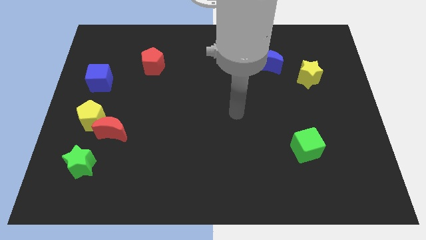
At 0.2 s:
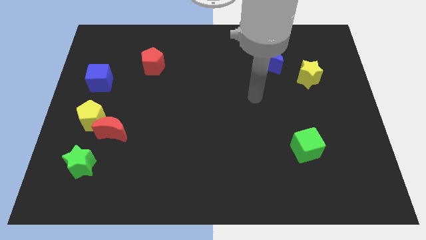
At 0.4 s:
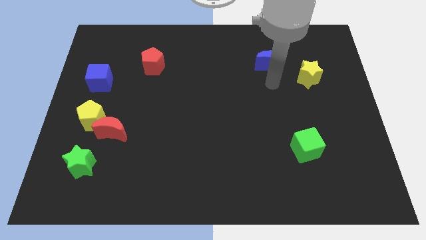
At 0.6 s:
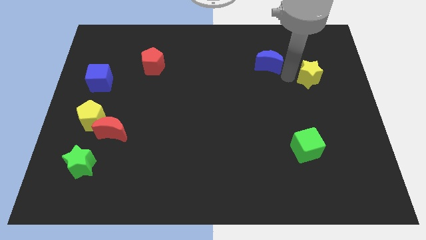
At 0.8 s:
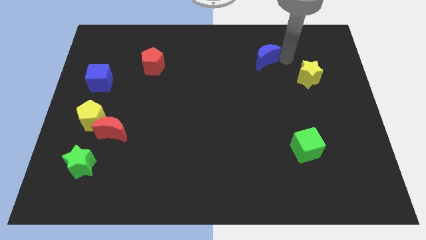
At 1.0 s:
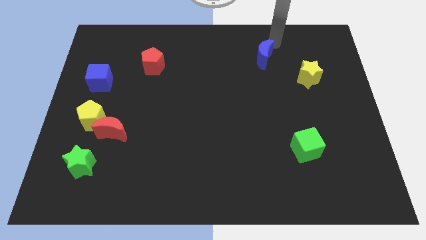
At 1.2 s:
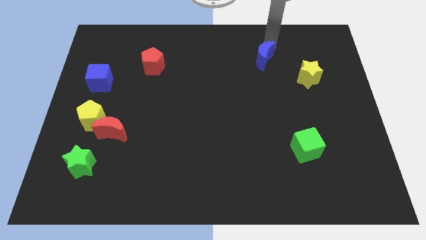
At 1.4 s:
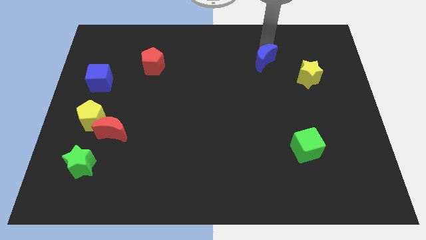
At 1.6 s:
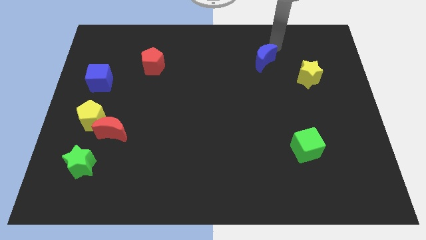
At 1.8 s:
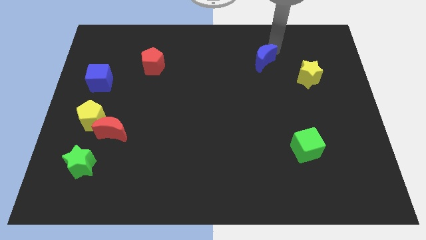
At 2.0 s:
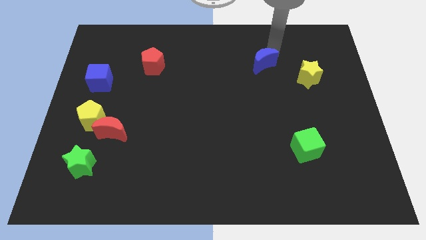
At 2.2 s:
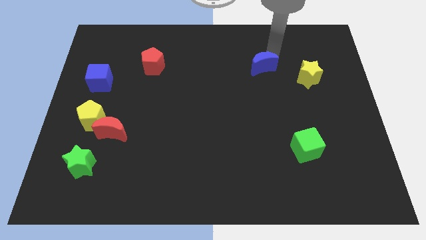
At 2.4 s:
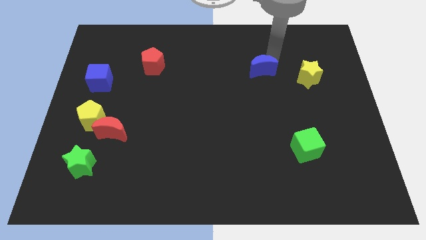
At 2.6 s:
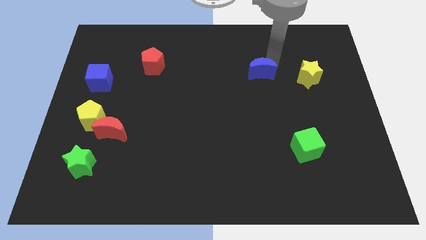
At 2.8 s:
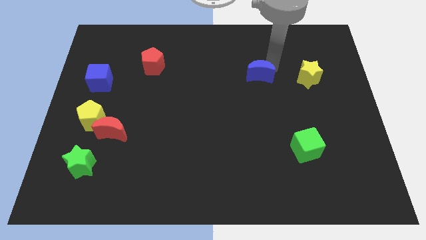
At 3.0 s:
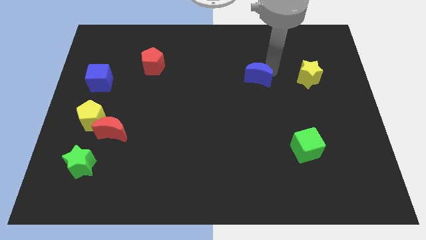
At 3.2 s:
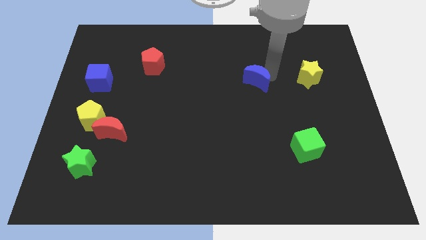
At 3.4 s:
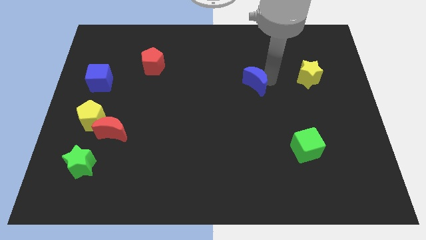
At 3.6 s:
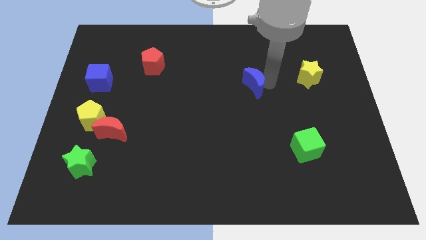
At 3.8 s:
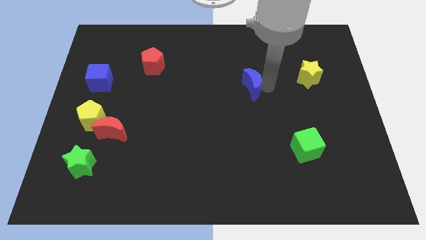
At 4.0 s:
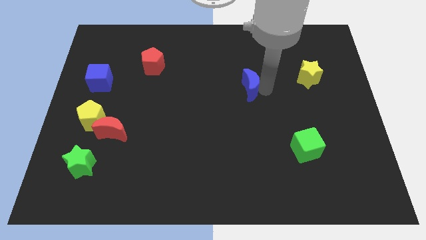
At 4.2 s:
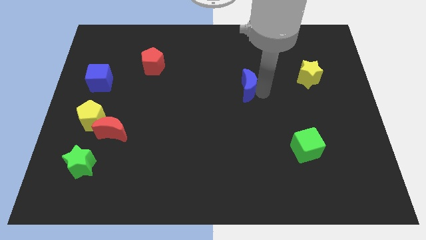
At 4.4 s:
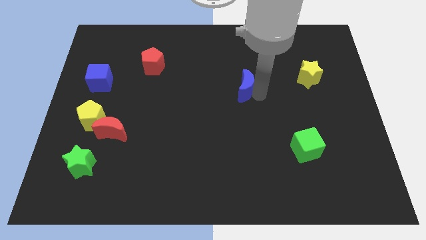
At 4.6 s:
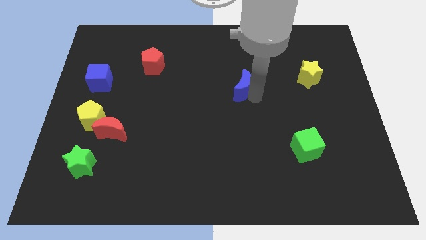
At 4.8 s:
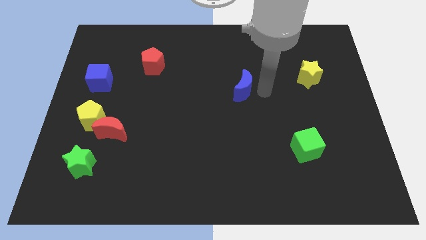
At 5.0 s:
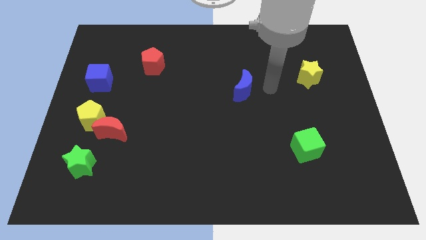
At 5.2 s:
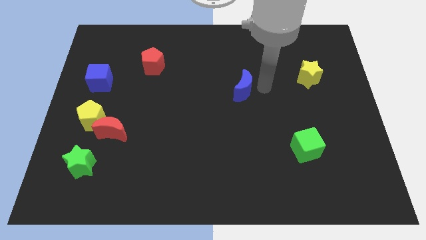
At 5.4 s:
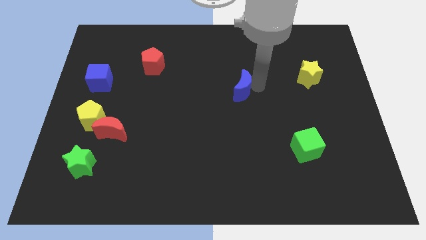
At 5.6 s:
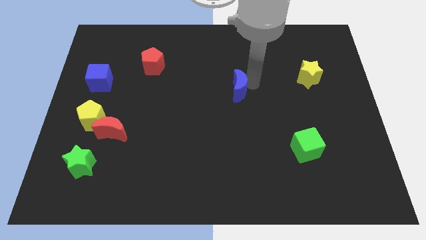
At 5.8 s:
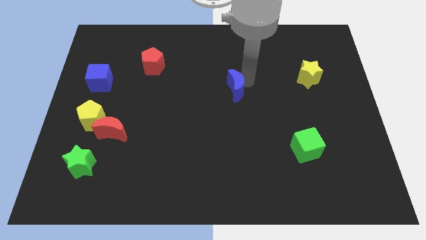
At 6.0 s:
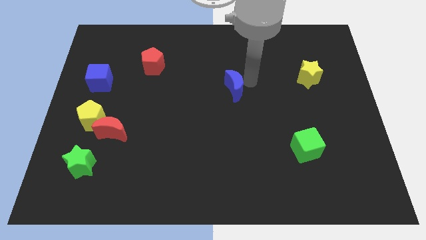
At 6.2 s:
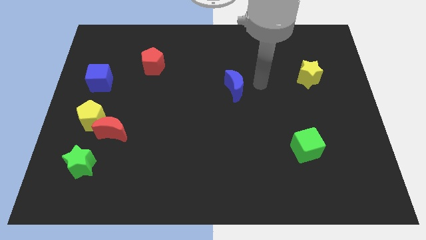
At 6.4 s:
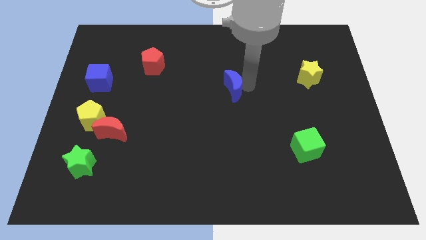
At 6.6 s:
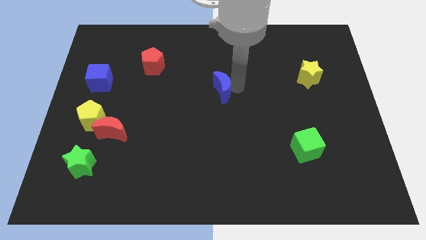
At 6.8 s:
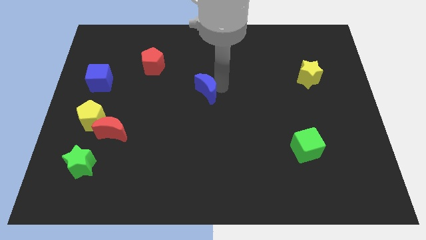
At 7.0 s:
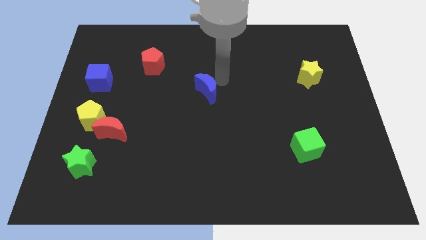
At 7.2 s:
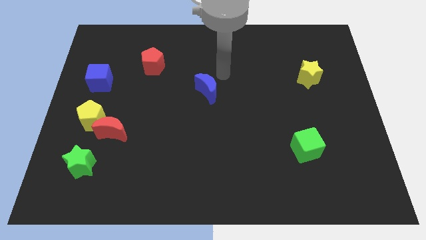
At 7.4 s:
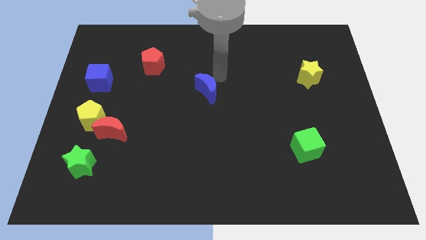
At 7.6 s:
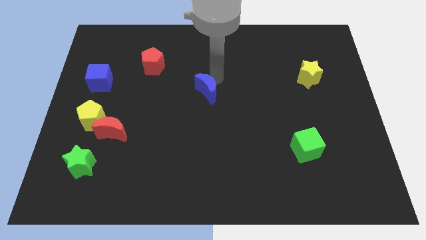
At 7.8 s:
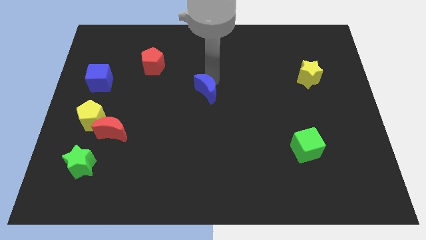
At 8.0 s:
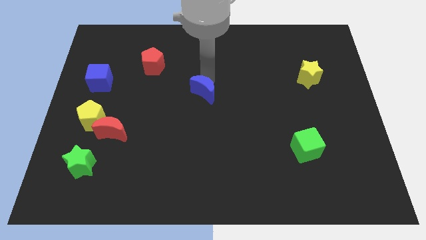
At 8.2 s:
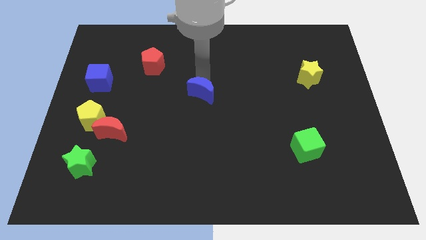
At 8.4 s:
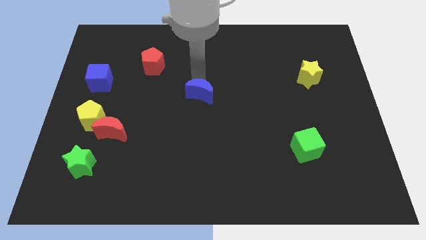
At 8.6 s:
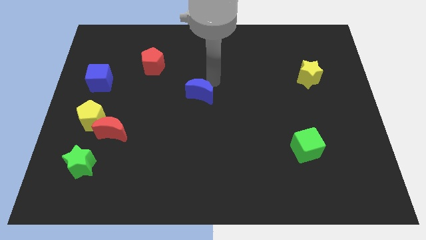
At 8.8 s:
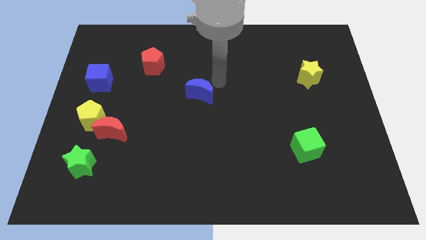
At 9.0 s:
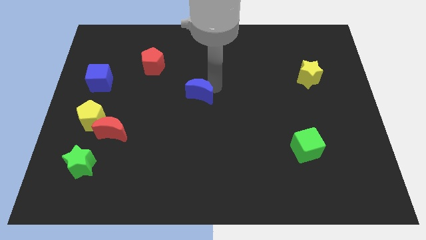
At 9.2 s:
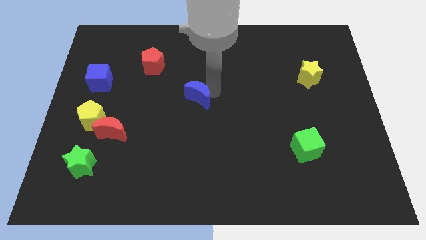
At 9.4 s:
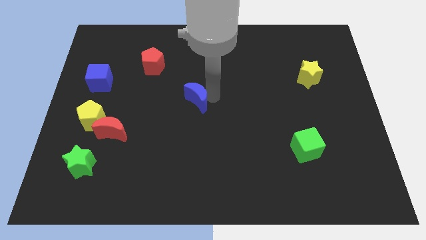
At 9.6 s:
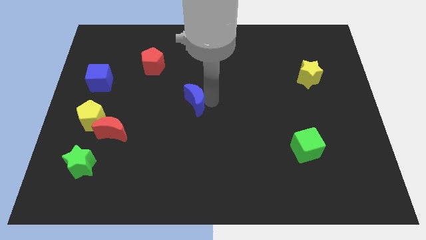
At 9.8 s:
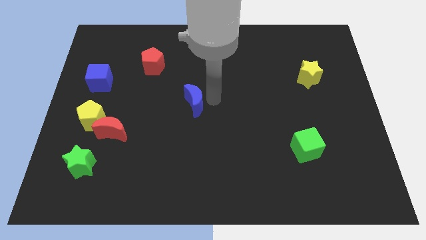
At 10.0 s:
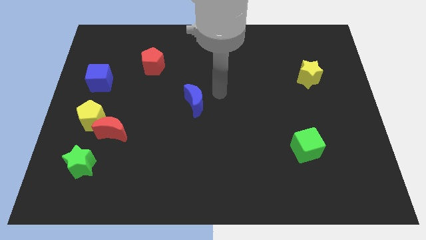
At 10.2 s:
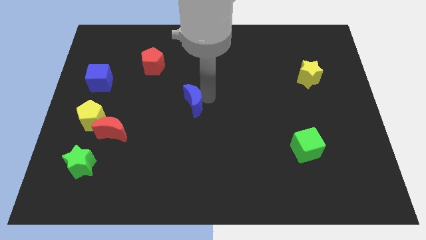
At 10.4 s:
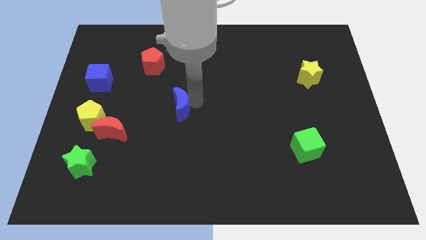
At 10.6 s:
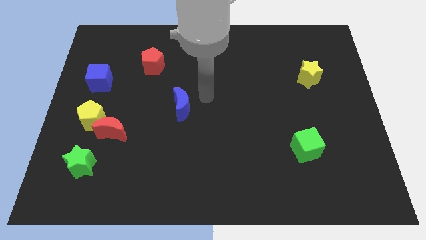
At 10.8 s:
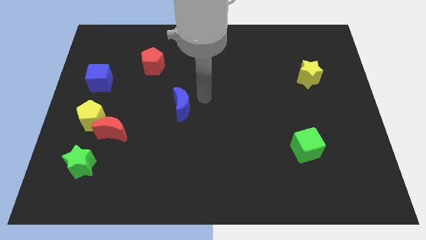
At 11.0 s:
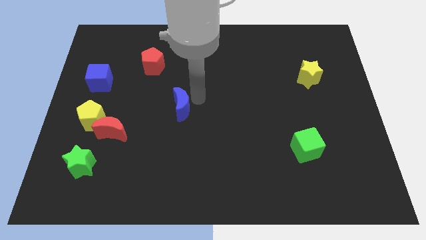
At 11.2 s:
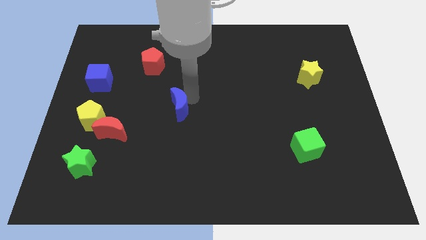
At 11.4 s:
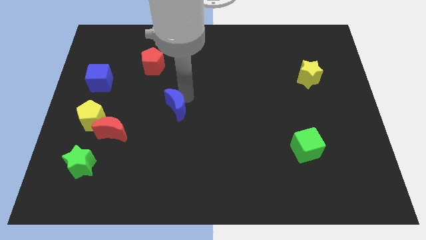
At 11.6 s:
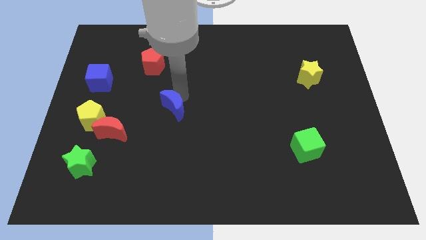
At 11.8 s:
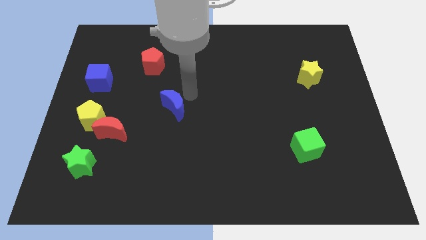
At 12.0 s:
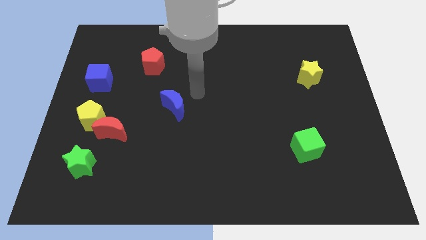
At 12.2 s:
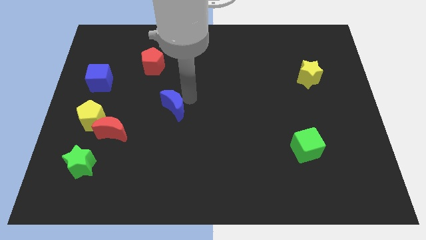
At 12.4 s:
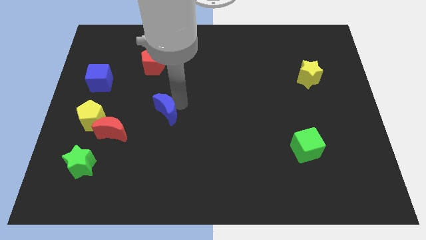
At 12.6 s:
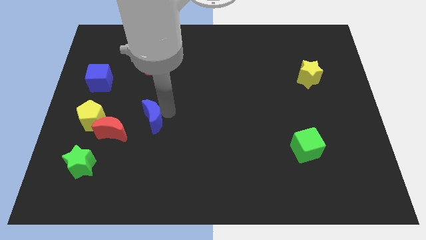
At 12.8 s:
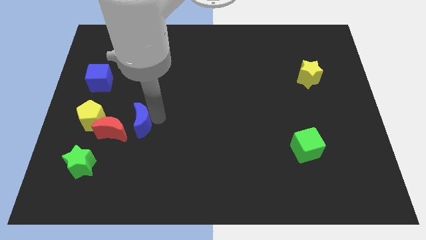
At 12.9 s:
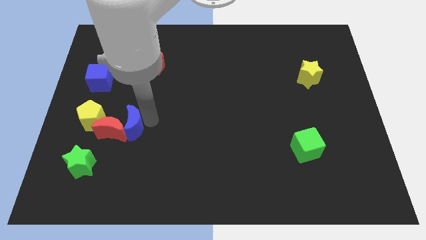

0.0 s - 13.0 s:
push the blue moon to the red moon

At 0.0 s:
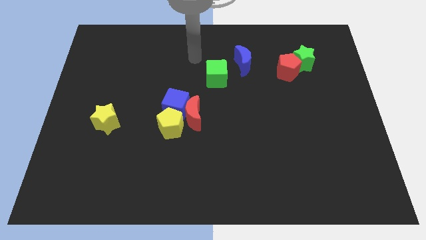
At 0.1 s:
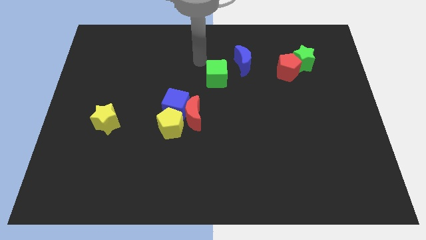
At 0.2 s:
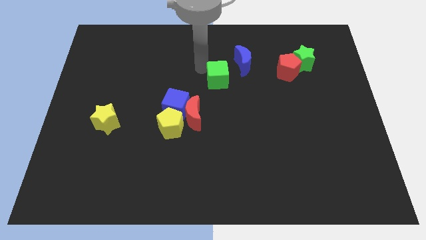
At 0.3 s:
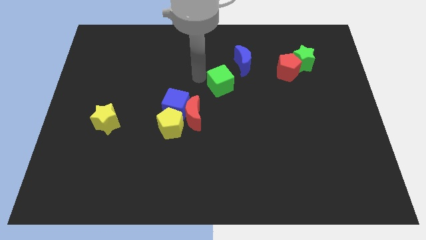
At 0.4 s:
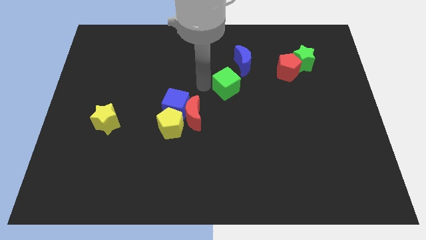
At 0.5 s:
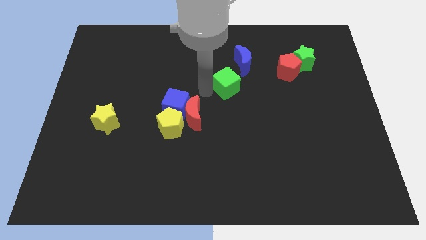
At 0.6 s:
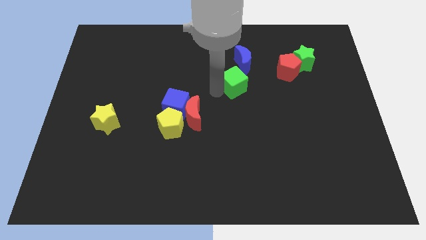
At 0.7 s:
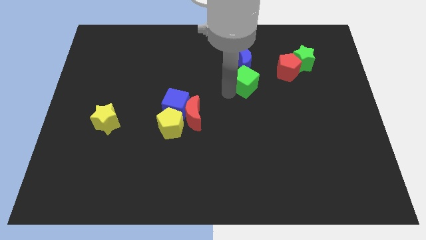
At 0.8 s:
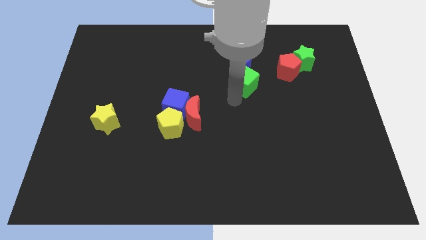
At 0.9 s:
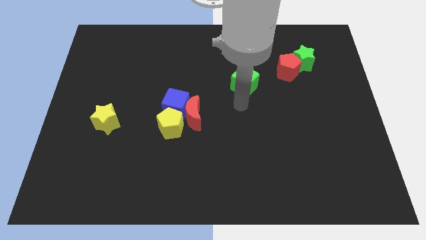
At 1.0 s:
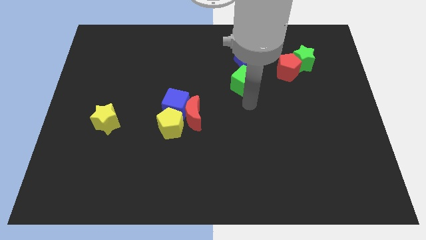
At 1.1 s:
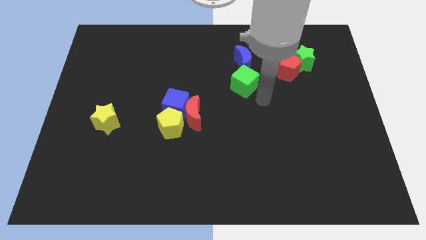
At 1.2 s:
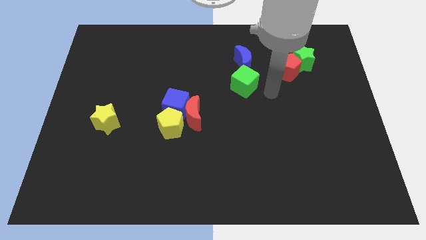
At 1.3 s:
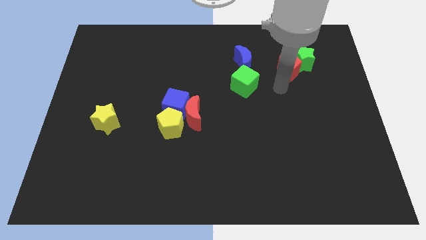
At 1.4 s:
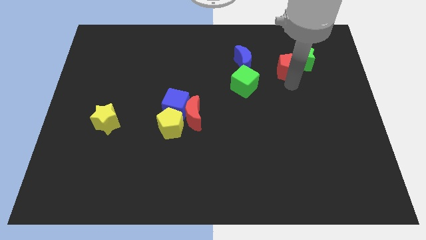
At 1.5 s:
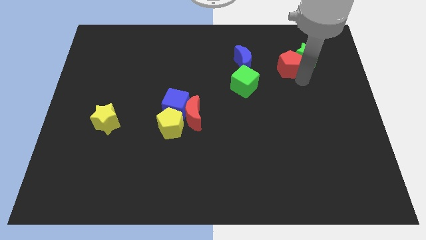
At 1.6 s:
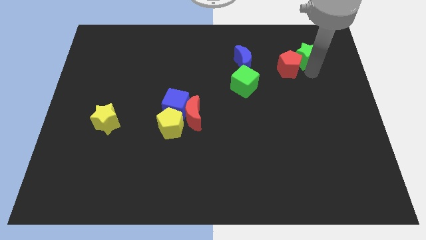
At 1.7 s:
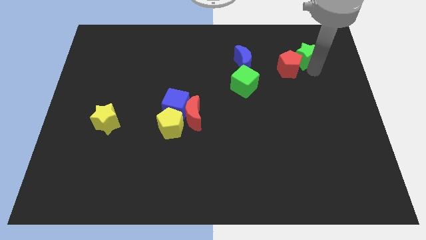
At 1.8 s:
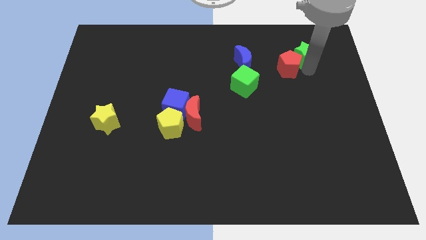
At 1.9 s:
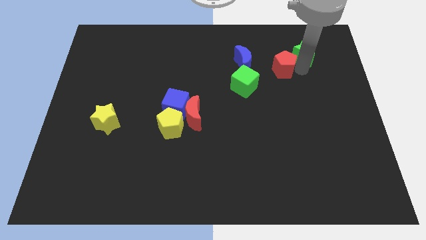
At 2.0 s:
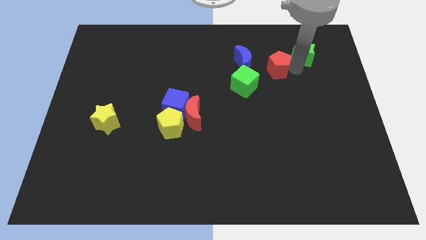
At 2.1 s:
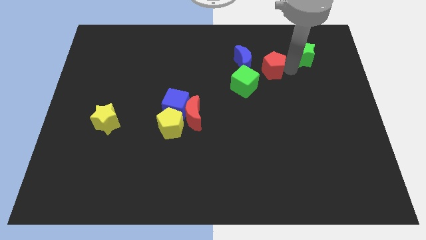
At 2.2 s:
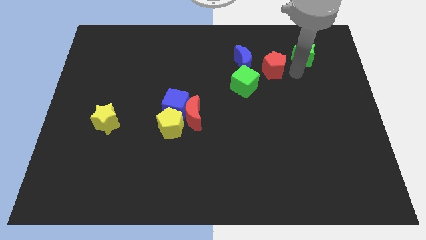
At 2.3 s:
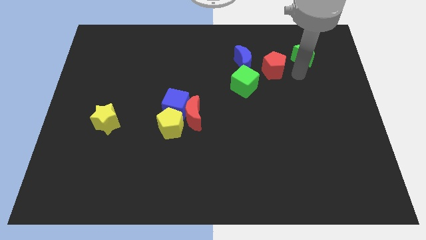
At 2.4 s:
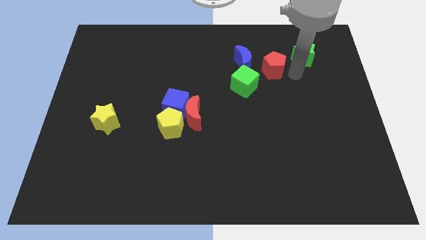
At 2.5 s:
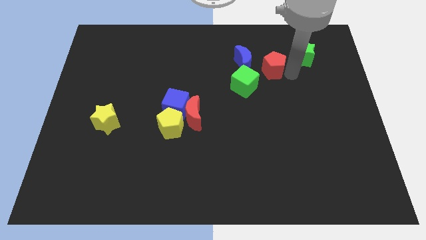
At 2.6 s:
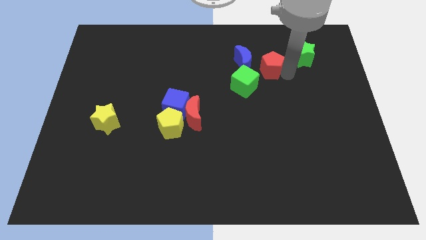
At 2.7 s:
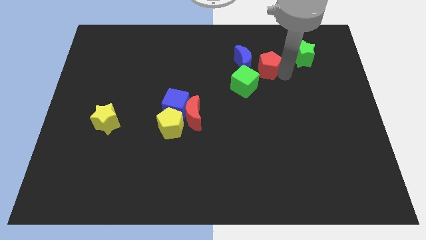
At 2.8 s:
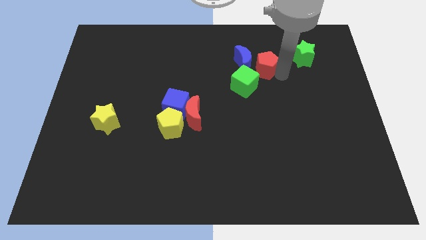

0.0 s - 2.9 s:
move the red pentagon next to the blue moon
